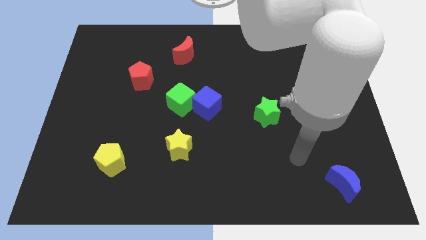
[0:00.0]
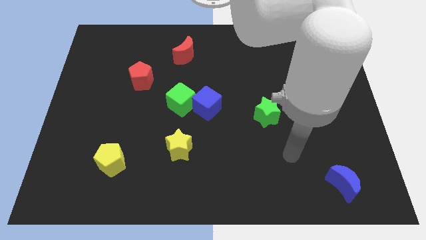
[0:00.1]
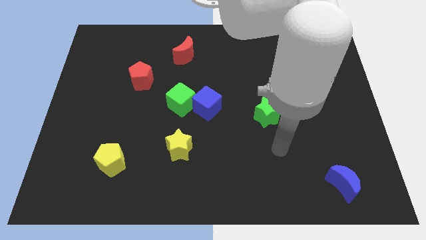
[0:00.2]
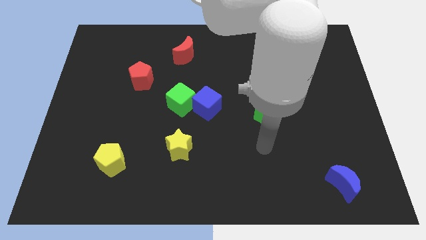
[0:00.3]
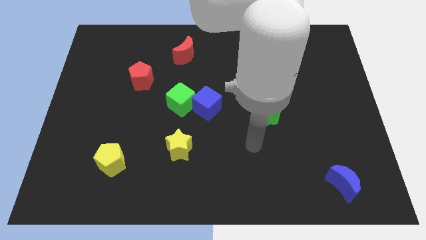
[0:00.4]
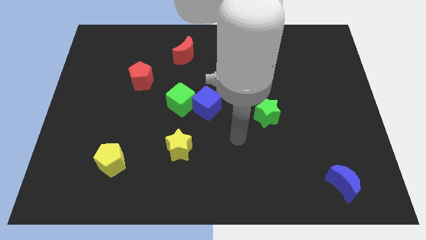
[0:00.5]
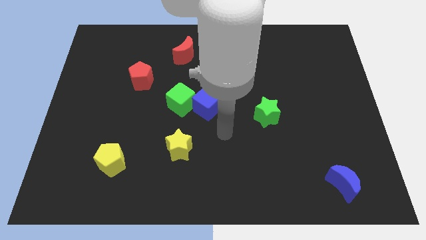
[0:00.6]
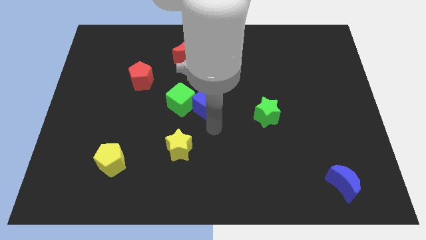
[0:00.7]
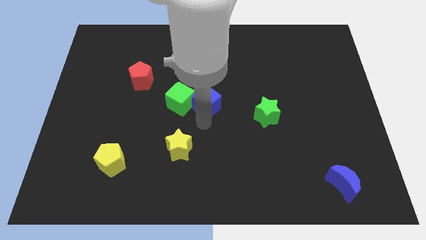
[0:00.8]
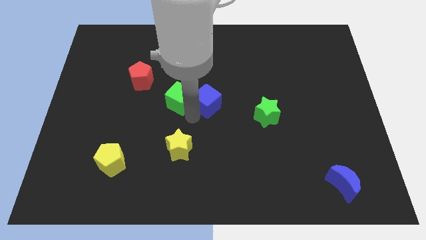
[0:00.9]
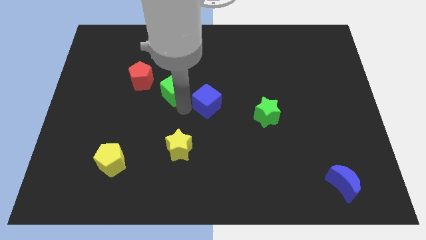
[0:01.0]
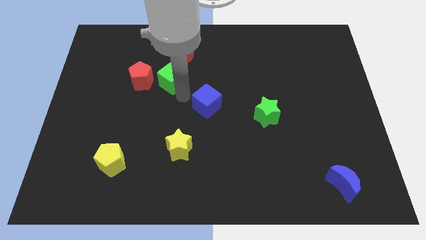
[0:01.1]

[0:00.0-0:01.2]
pull the blue cube apart from the green cube

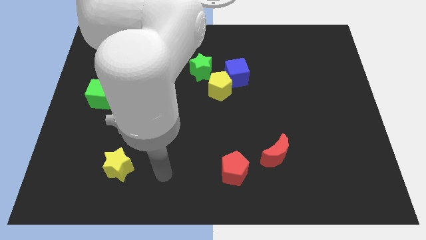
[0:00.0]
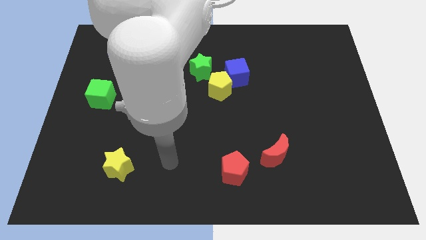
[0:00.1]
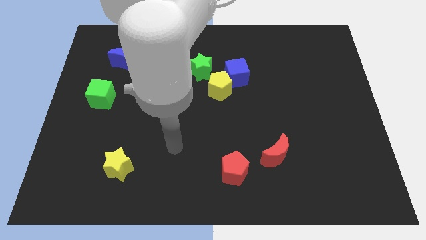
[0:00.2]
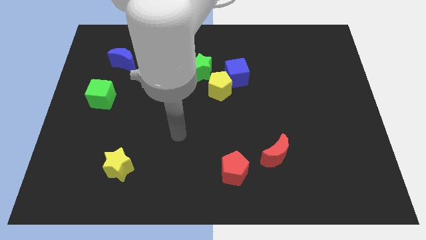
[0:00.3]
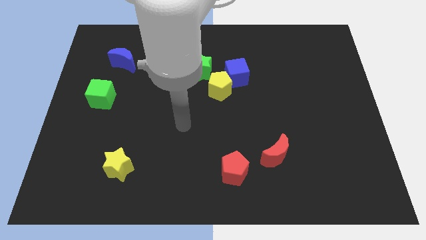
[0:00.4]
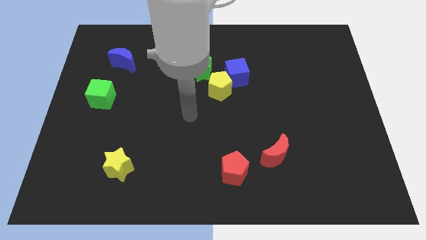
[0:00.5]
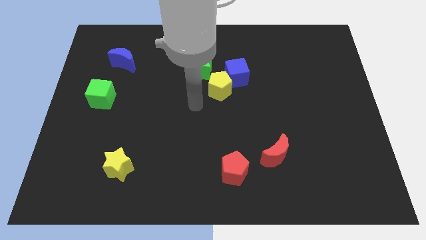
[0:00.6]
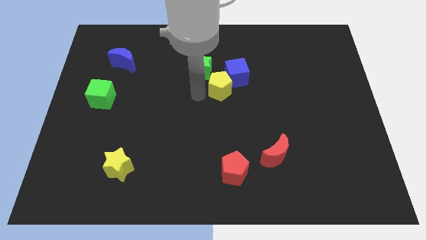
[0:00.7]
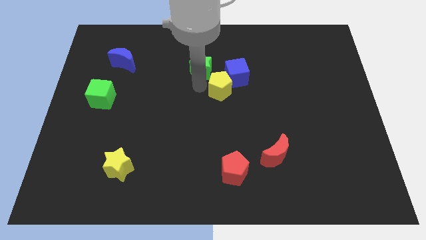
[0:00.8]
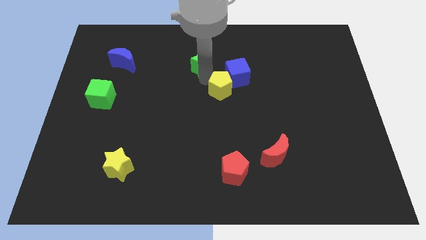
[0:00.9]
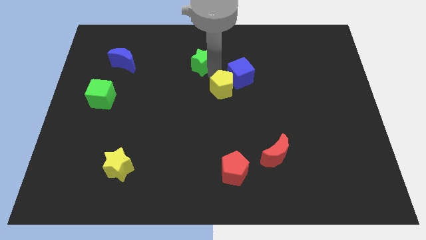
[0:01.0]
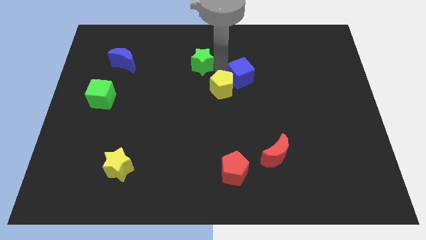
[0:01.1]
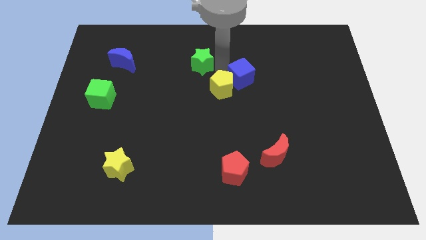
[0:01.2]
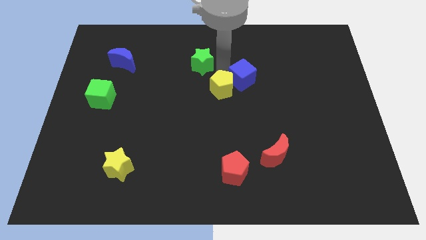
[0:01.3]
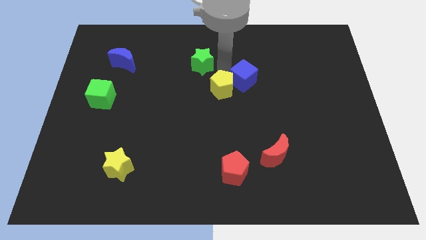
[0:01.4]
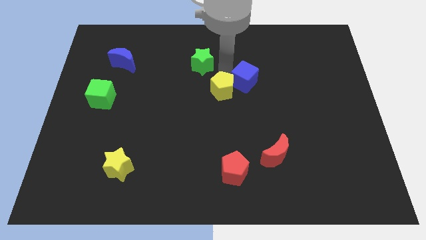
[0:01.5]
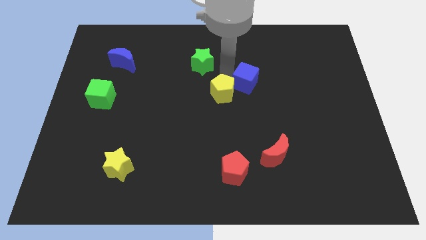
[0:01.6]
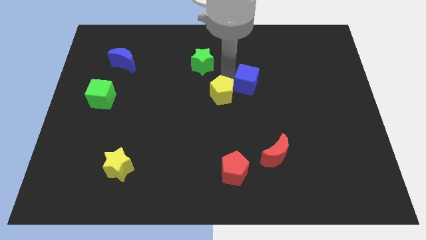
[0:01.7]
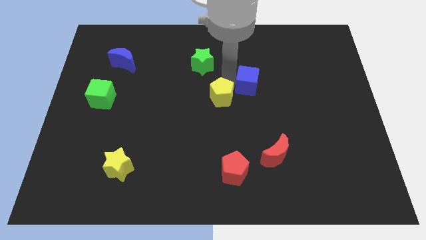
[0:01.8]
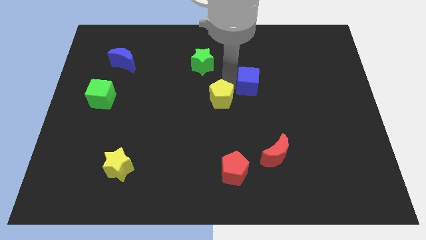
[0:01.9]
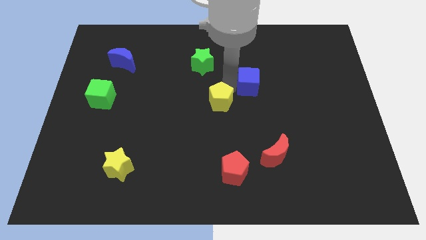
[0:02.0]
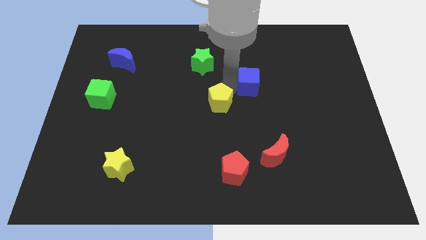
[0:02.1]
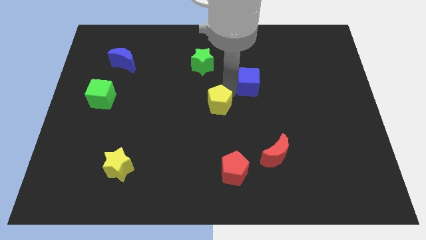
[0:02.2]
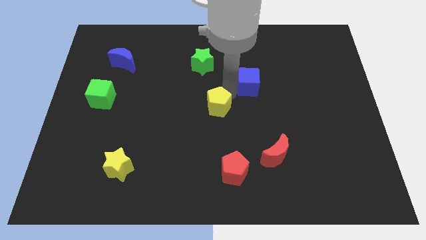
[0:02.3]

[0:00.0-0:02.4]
separate the yellow pentagon from the blue cube and green star

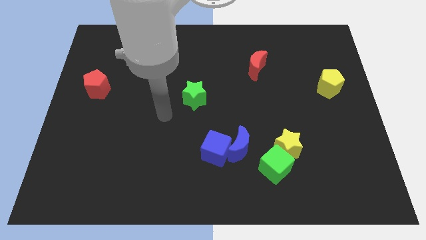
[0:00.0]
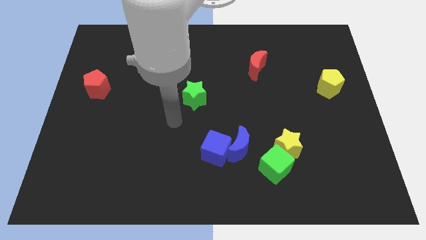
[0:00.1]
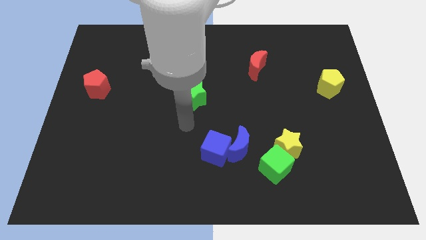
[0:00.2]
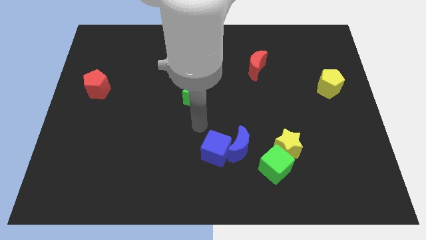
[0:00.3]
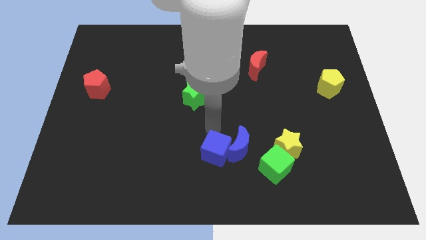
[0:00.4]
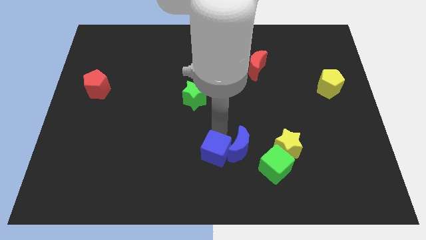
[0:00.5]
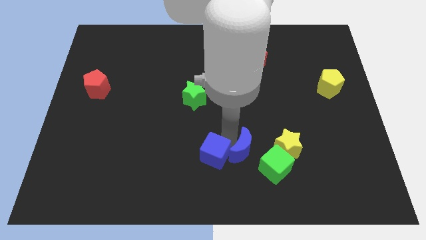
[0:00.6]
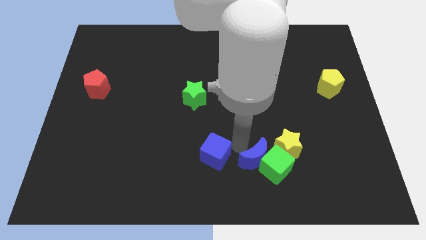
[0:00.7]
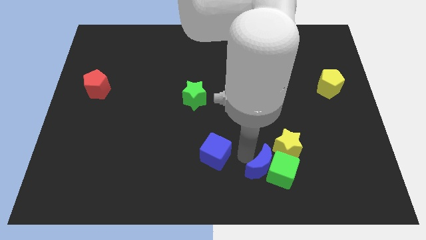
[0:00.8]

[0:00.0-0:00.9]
move the blue cube away from the blue moon

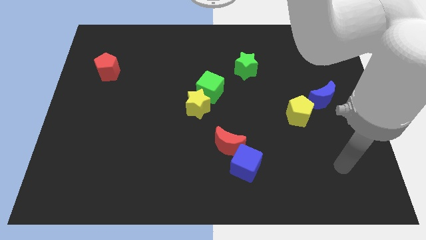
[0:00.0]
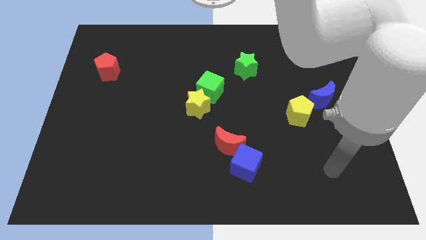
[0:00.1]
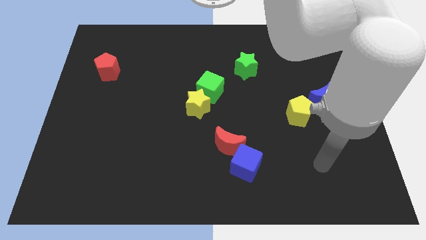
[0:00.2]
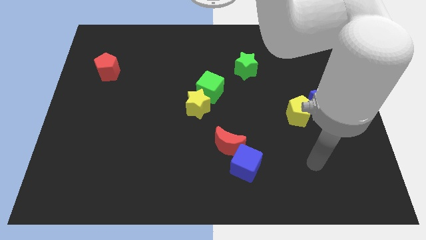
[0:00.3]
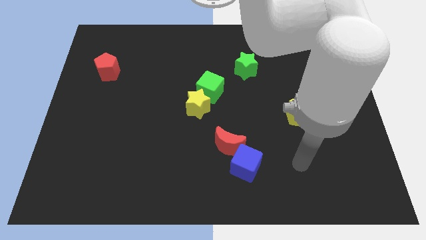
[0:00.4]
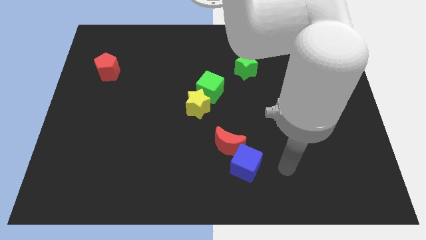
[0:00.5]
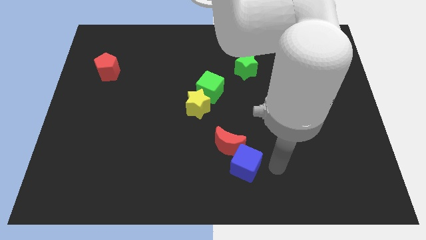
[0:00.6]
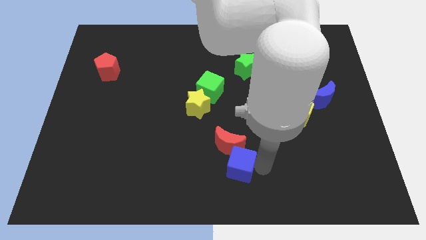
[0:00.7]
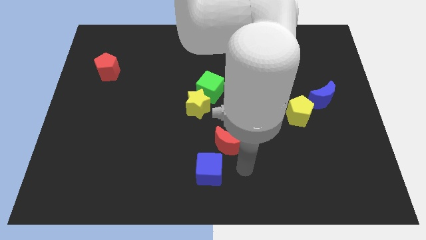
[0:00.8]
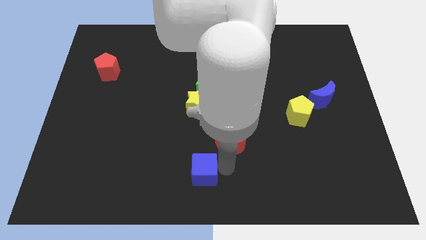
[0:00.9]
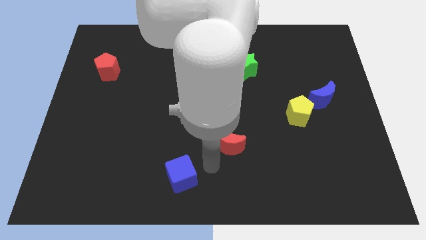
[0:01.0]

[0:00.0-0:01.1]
pull the red moon apart from the blue cube

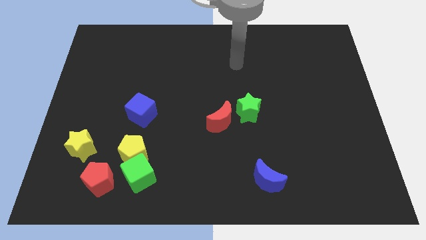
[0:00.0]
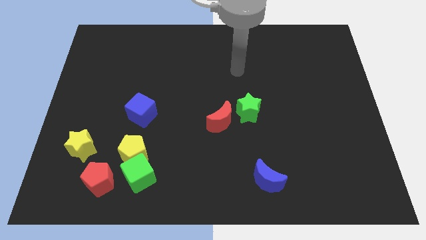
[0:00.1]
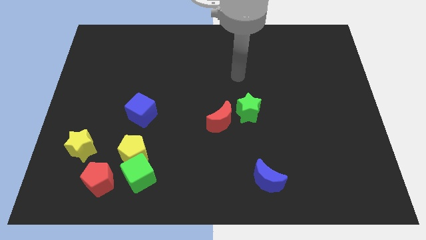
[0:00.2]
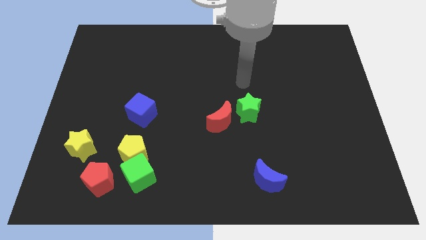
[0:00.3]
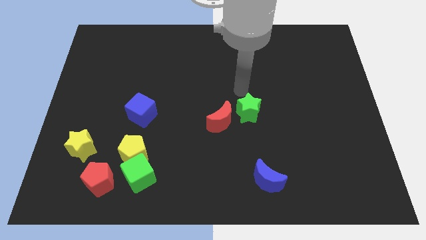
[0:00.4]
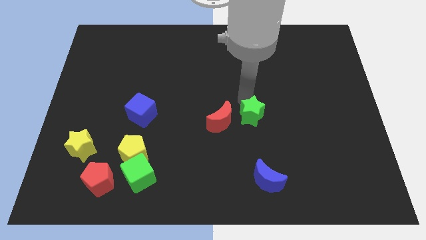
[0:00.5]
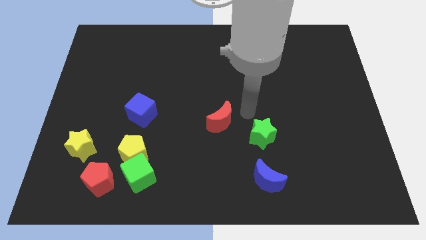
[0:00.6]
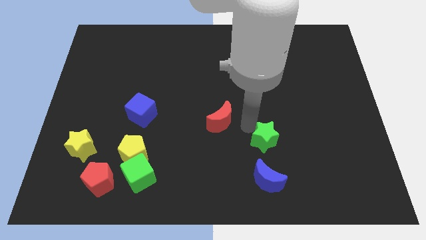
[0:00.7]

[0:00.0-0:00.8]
pull the red moon apart from the green star

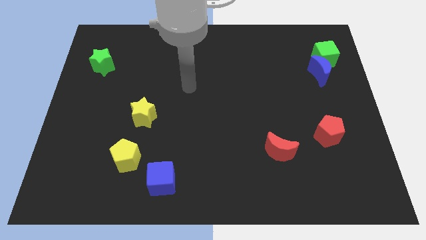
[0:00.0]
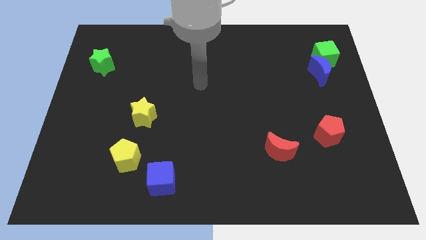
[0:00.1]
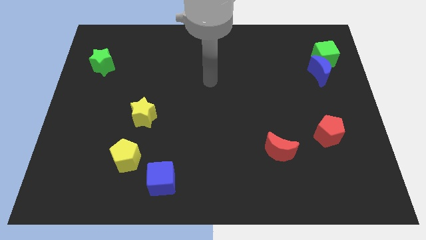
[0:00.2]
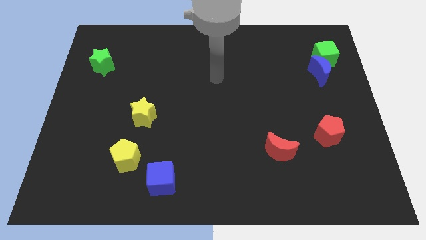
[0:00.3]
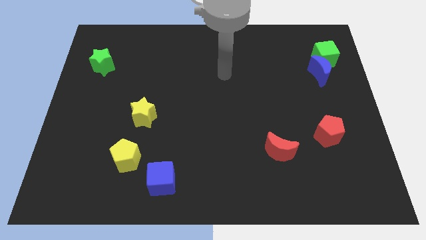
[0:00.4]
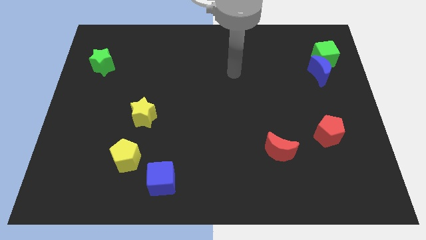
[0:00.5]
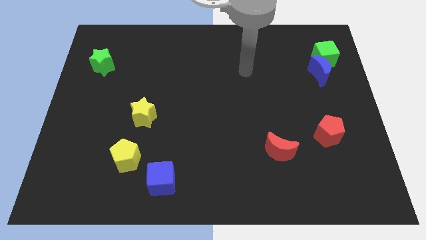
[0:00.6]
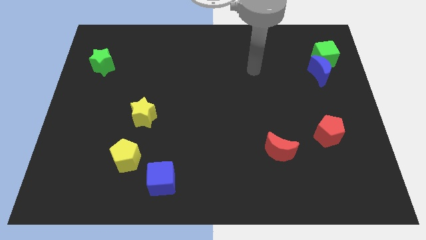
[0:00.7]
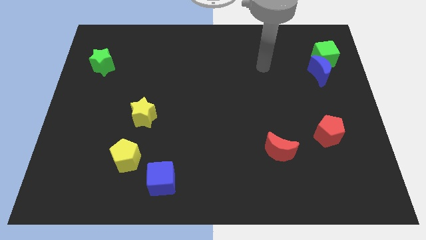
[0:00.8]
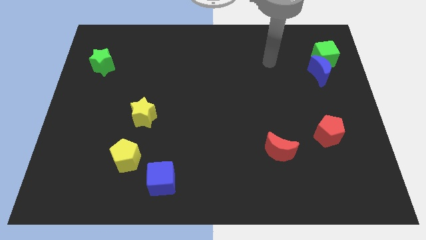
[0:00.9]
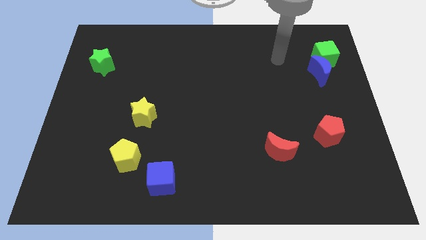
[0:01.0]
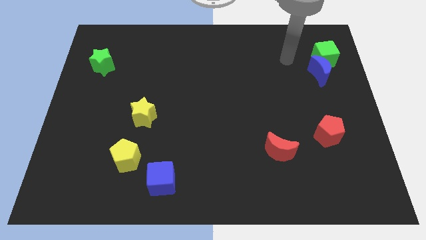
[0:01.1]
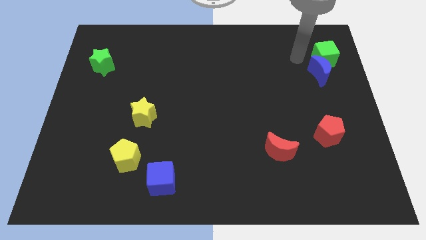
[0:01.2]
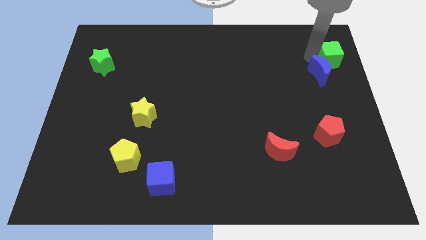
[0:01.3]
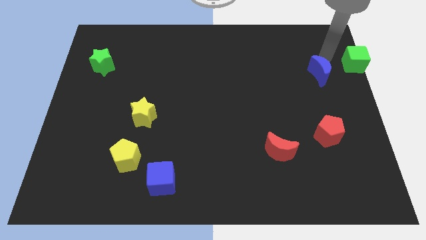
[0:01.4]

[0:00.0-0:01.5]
move the blue moon away from the green cube

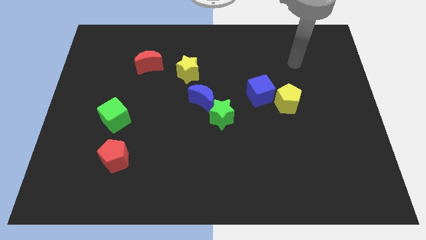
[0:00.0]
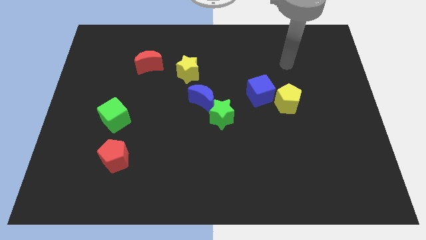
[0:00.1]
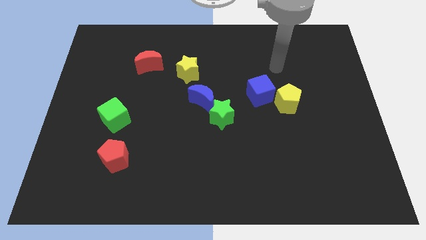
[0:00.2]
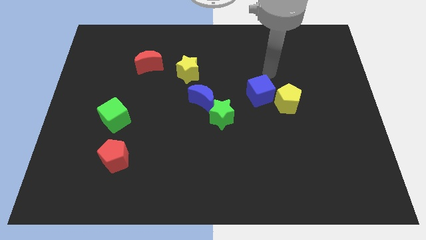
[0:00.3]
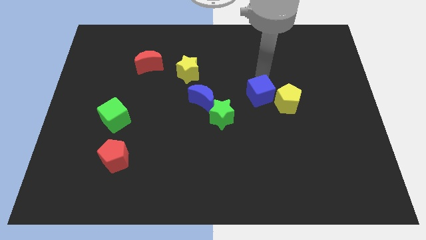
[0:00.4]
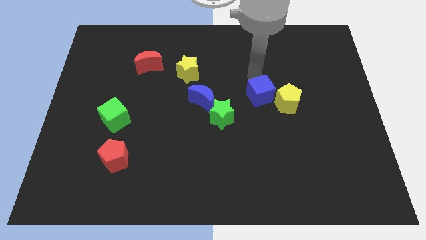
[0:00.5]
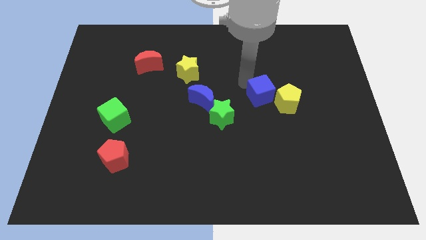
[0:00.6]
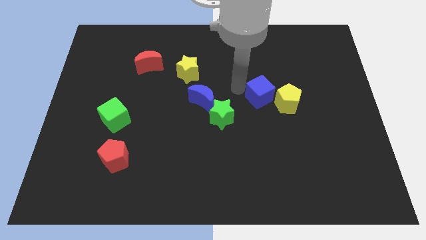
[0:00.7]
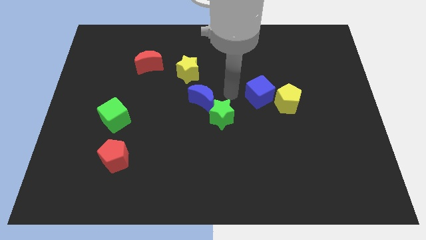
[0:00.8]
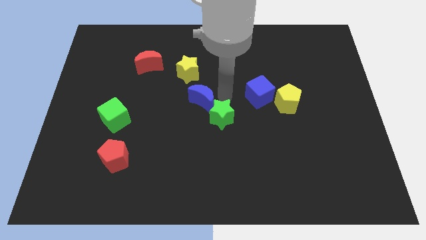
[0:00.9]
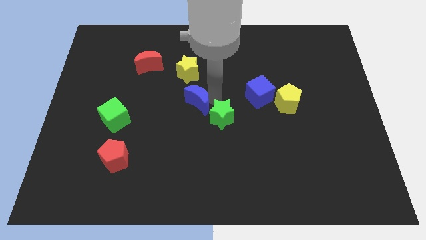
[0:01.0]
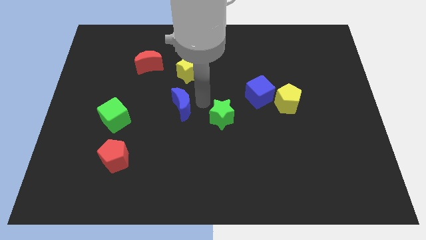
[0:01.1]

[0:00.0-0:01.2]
separate the green star from the blue moon

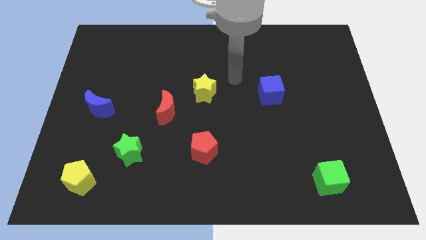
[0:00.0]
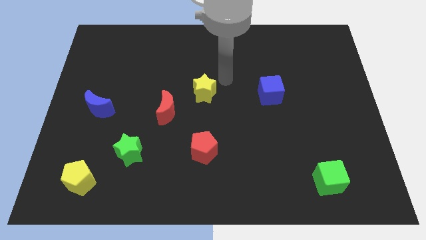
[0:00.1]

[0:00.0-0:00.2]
pull the red moon apart from the yellow star
